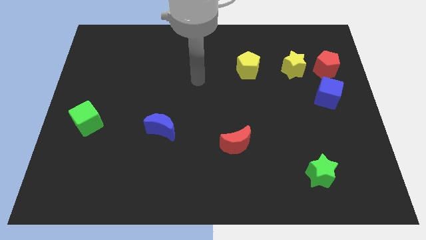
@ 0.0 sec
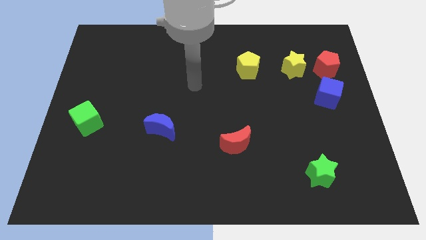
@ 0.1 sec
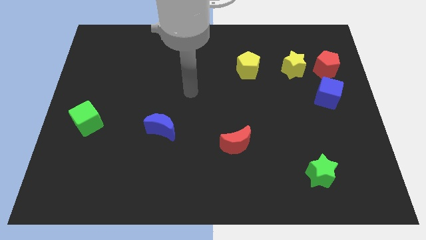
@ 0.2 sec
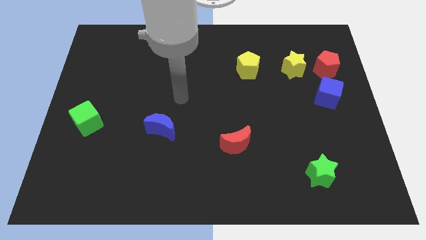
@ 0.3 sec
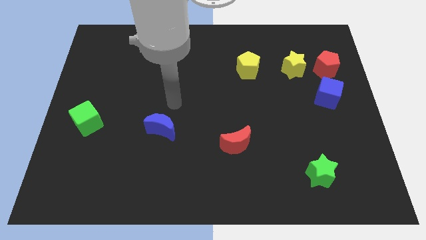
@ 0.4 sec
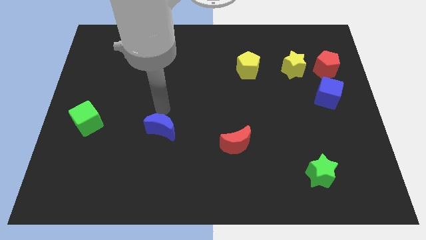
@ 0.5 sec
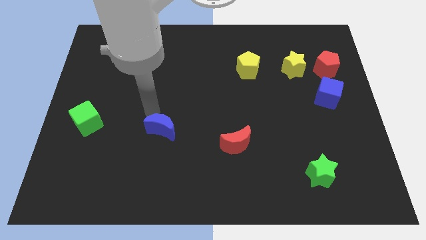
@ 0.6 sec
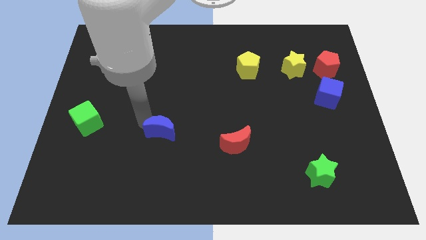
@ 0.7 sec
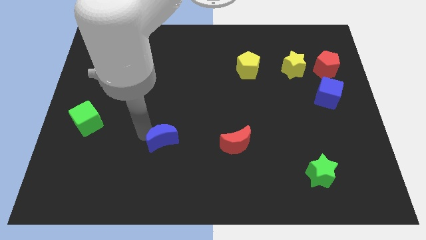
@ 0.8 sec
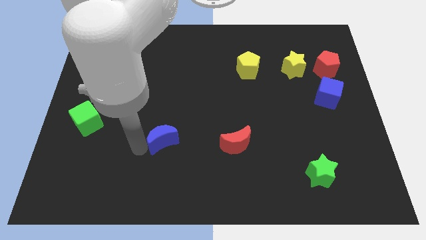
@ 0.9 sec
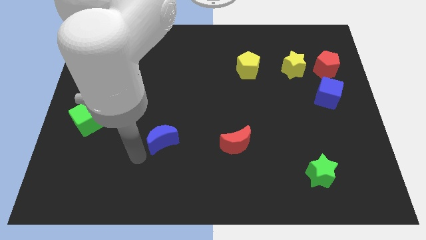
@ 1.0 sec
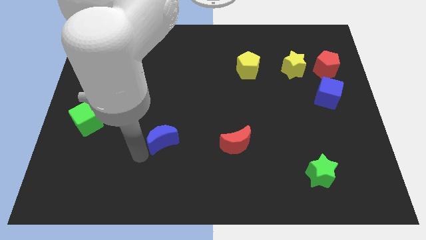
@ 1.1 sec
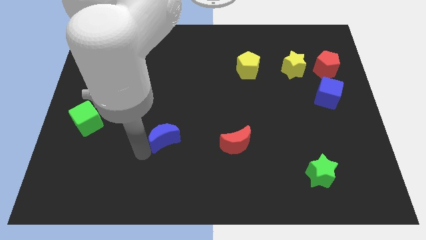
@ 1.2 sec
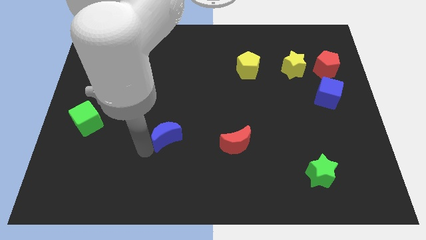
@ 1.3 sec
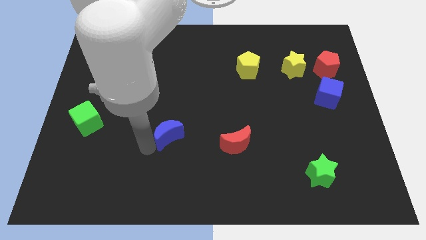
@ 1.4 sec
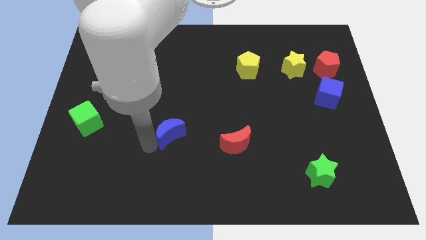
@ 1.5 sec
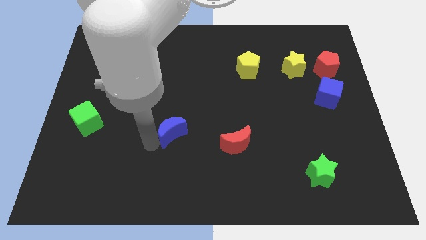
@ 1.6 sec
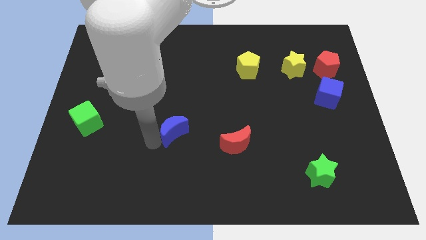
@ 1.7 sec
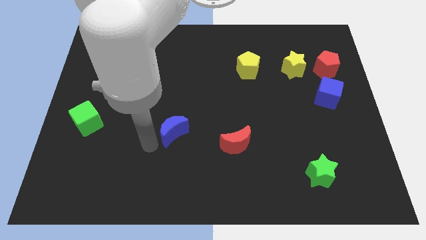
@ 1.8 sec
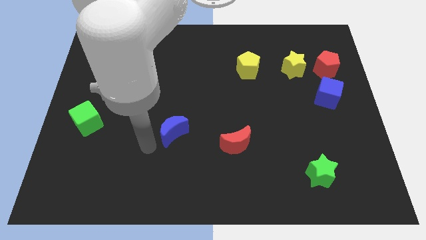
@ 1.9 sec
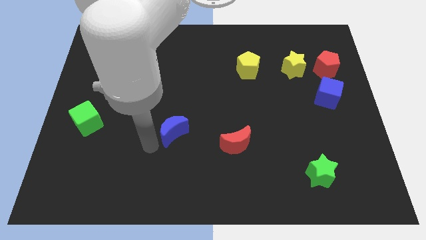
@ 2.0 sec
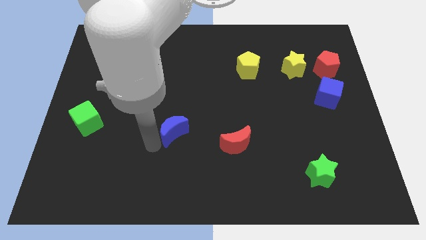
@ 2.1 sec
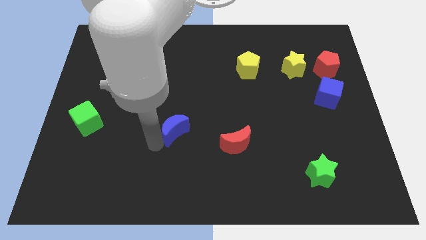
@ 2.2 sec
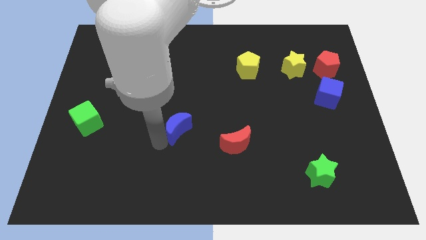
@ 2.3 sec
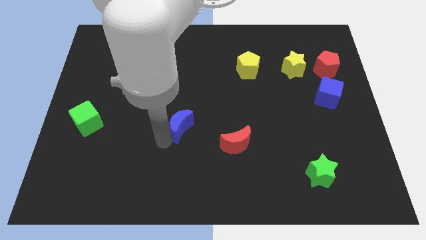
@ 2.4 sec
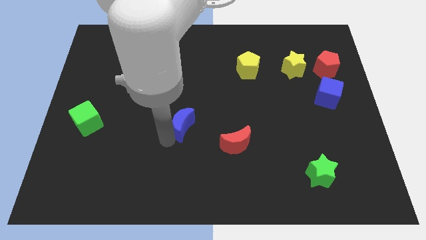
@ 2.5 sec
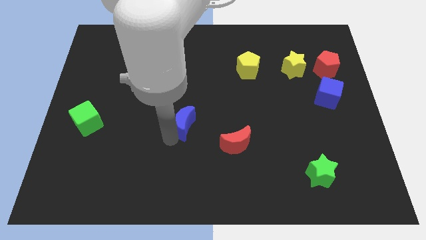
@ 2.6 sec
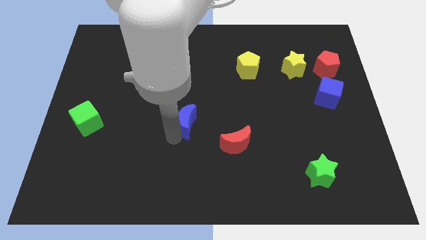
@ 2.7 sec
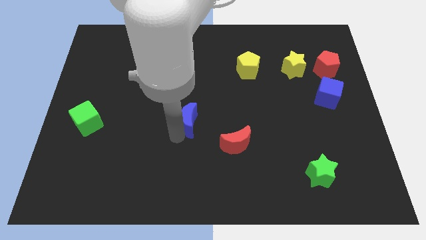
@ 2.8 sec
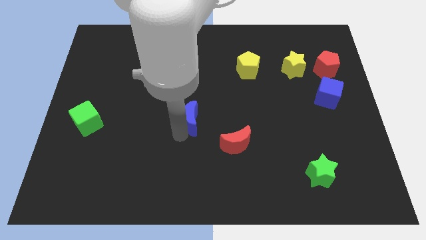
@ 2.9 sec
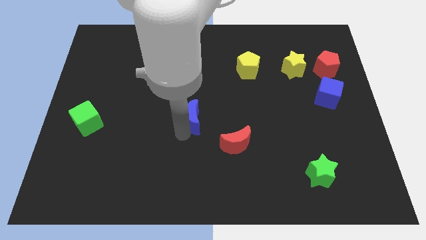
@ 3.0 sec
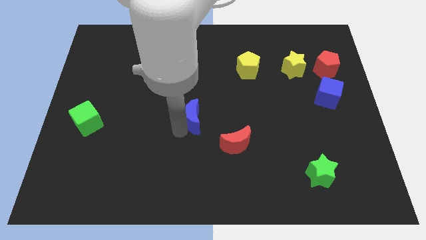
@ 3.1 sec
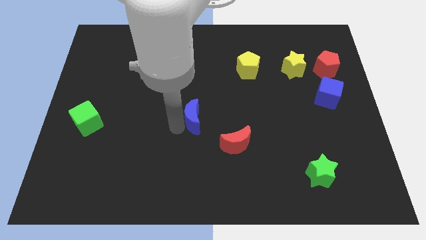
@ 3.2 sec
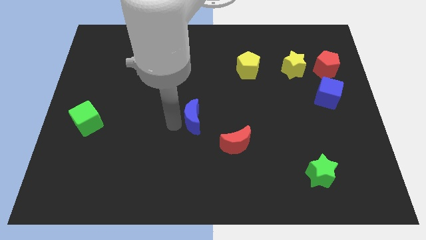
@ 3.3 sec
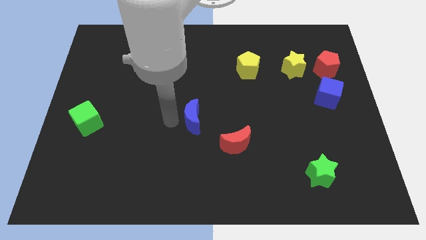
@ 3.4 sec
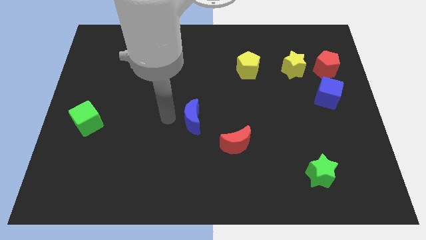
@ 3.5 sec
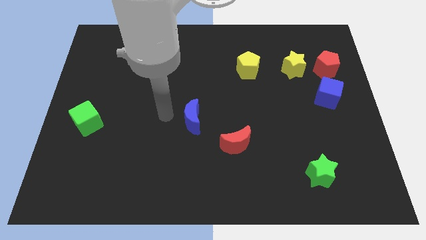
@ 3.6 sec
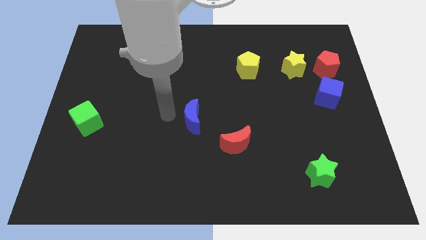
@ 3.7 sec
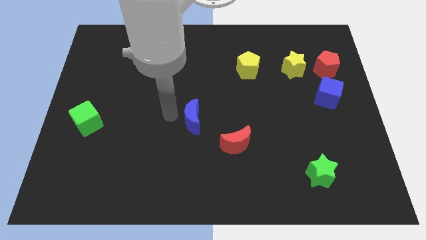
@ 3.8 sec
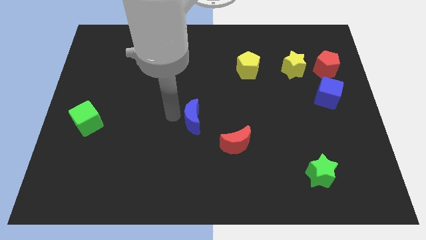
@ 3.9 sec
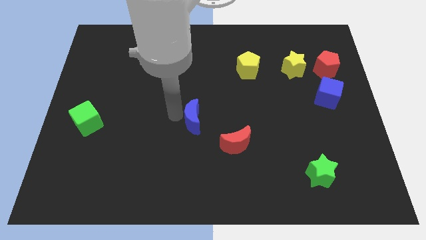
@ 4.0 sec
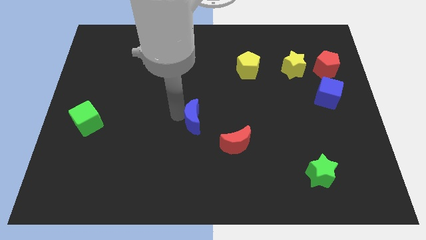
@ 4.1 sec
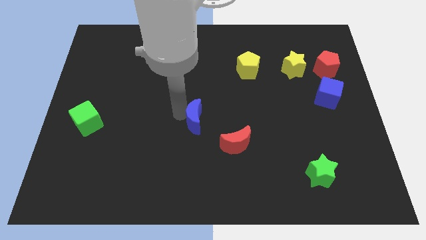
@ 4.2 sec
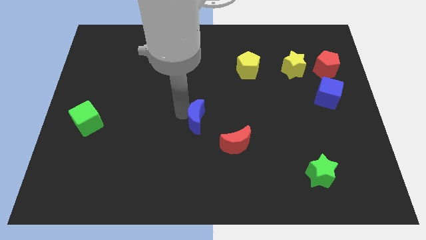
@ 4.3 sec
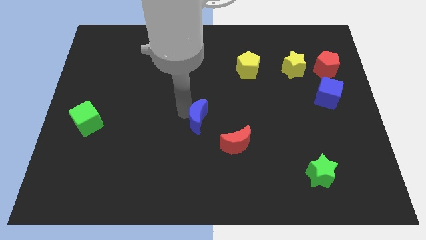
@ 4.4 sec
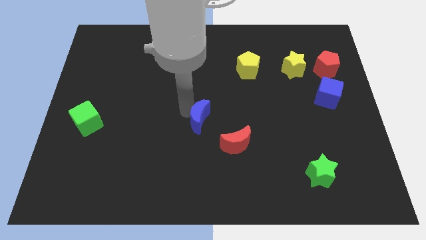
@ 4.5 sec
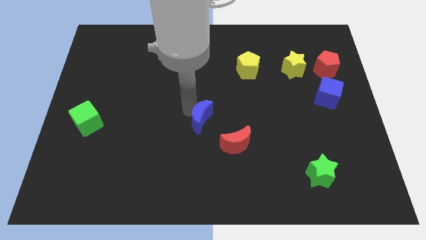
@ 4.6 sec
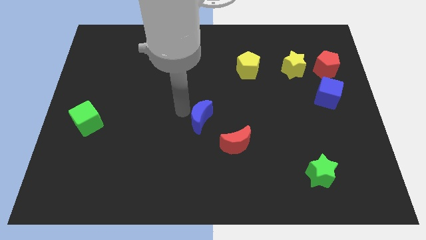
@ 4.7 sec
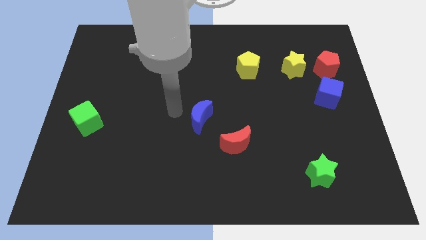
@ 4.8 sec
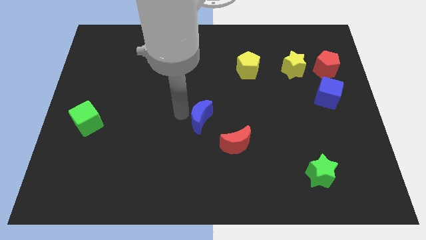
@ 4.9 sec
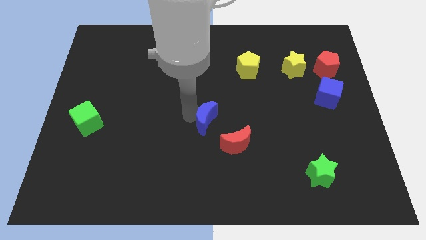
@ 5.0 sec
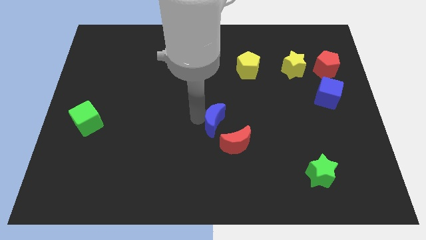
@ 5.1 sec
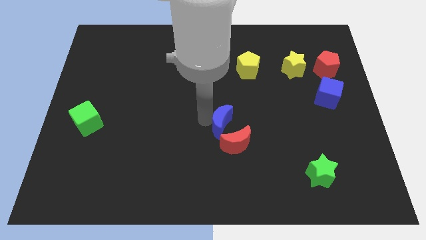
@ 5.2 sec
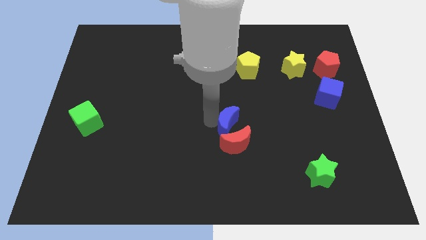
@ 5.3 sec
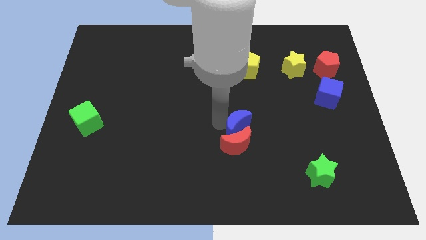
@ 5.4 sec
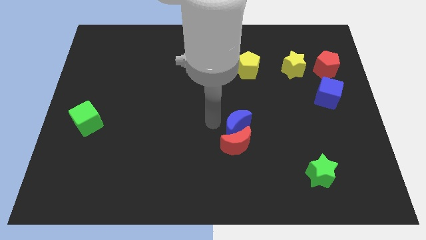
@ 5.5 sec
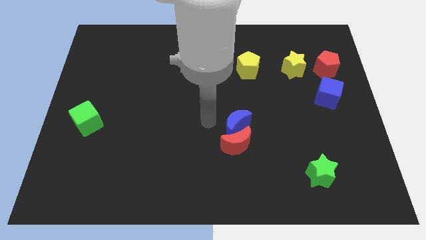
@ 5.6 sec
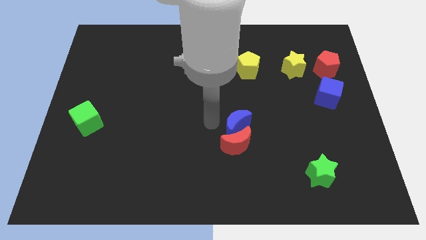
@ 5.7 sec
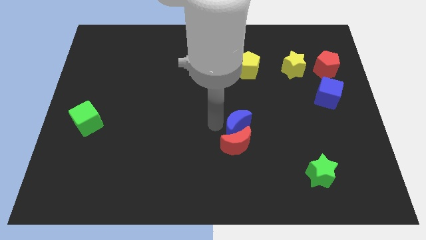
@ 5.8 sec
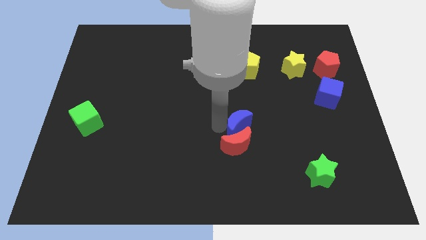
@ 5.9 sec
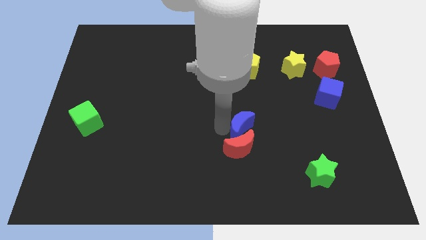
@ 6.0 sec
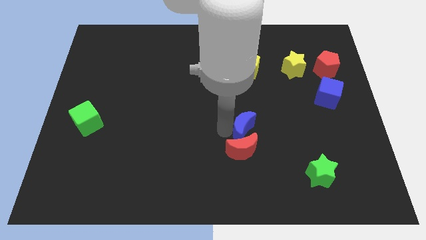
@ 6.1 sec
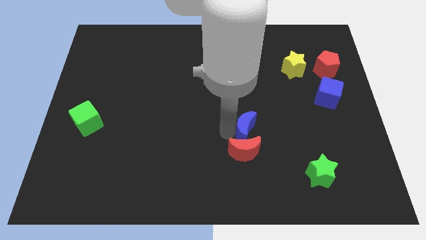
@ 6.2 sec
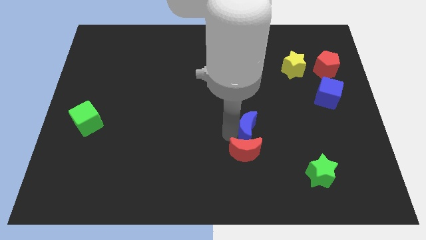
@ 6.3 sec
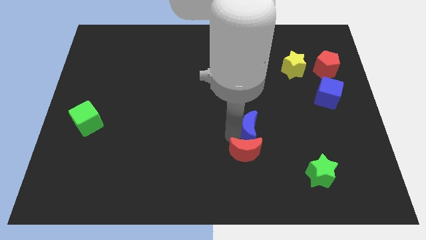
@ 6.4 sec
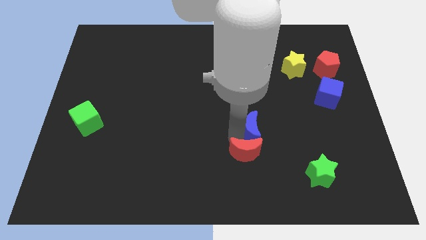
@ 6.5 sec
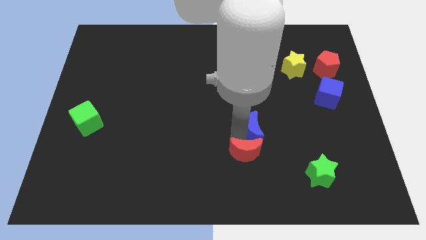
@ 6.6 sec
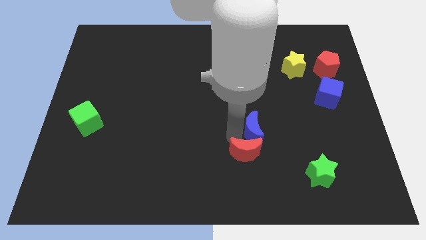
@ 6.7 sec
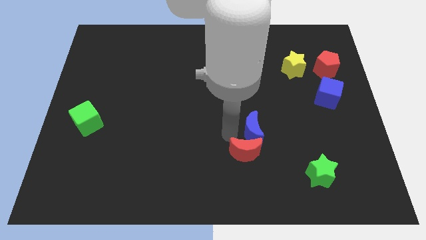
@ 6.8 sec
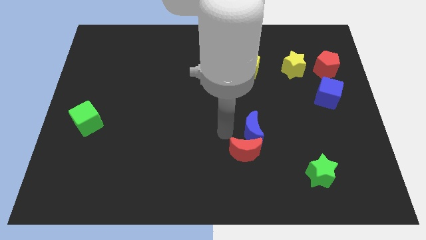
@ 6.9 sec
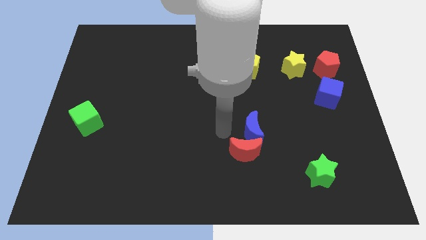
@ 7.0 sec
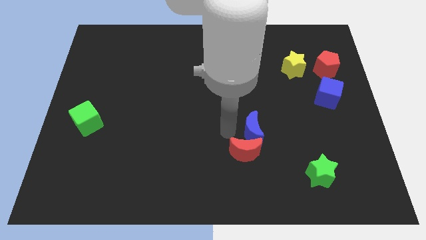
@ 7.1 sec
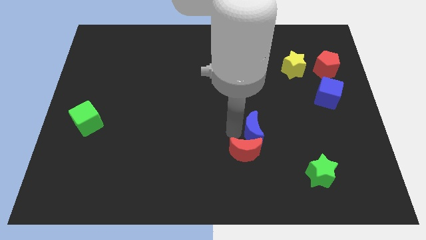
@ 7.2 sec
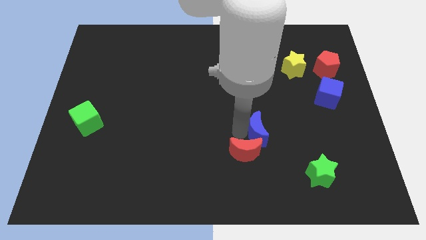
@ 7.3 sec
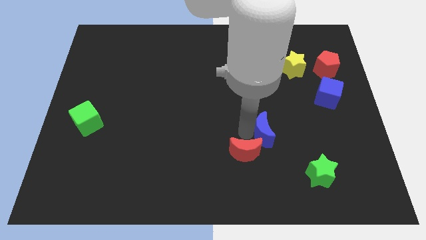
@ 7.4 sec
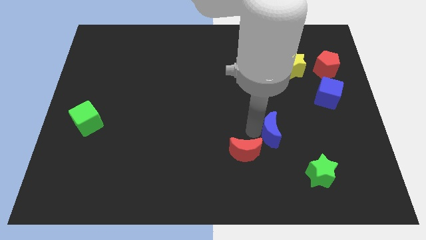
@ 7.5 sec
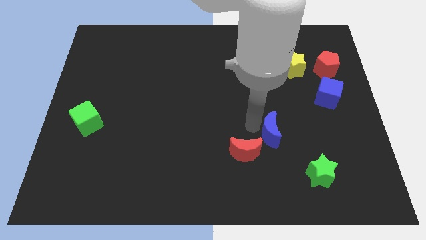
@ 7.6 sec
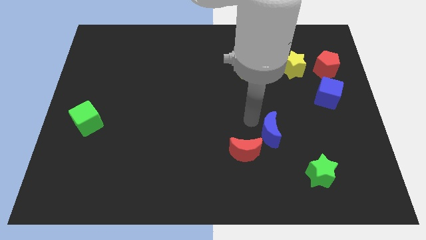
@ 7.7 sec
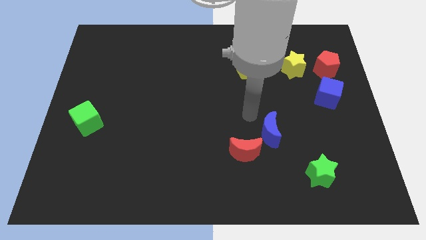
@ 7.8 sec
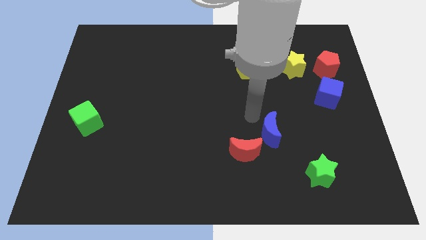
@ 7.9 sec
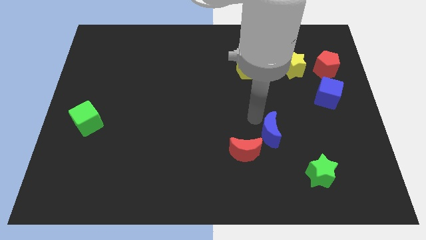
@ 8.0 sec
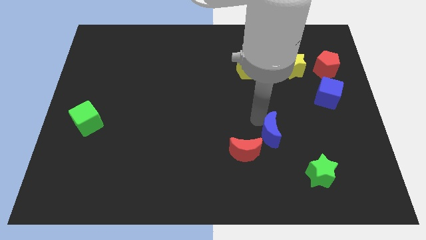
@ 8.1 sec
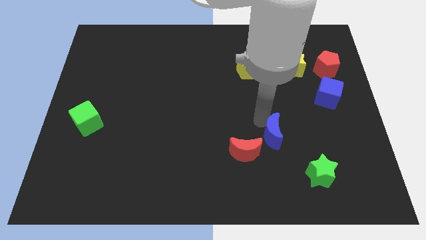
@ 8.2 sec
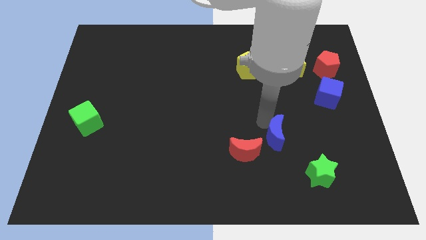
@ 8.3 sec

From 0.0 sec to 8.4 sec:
push the blue moon diagonally up and to the left of the green star
